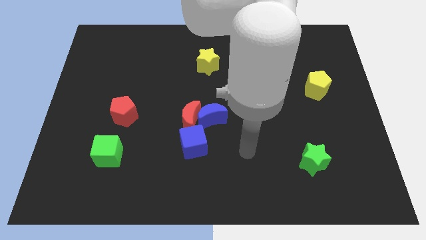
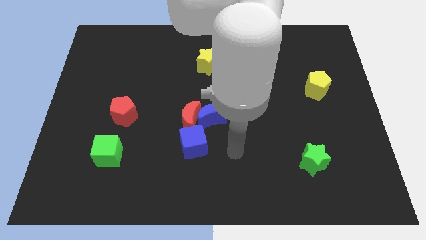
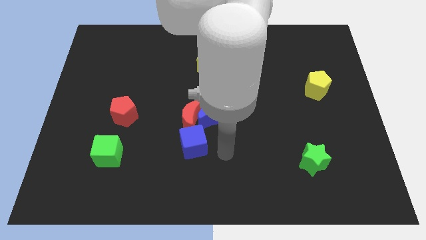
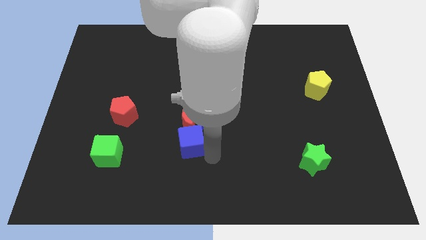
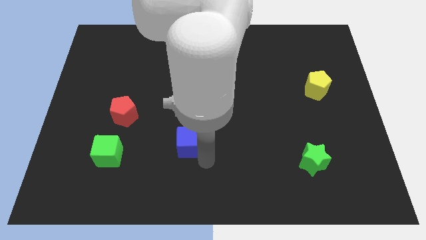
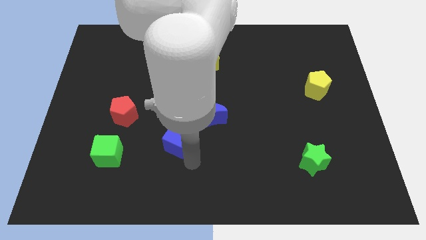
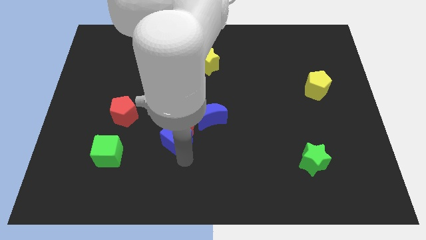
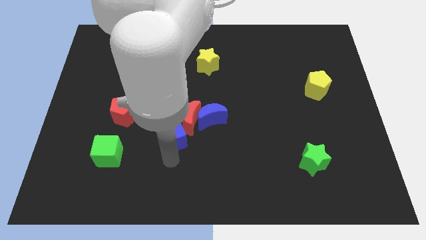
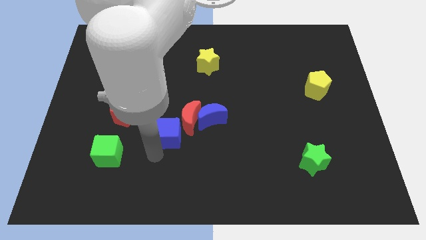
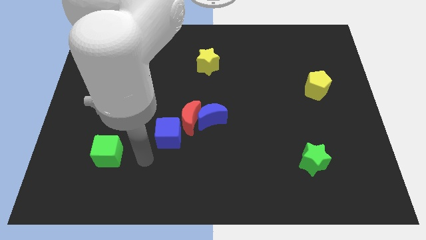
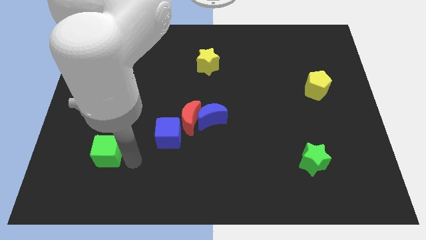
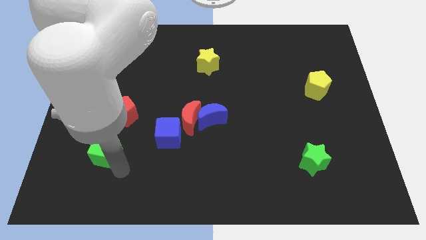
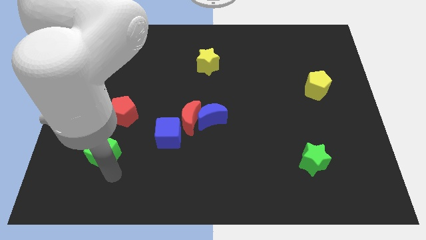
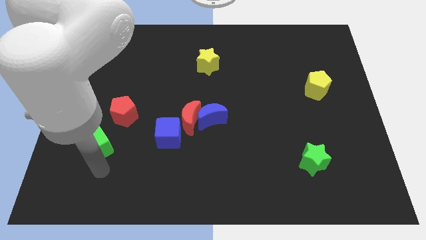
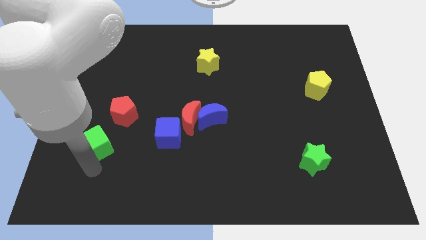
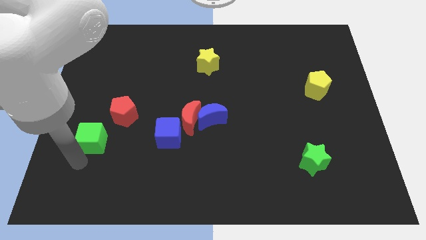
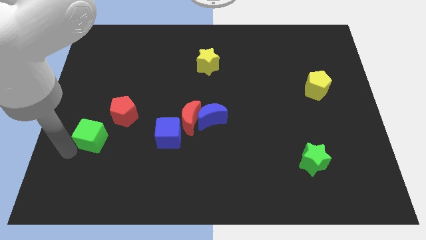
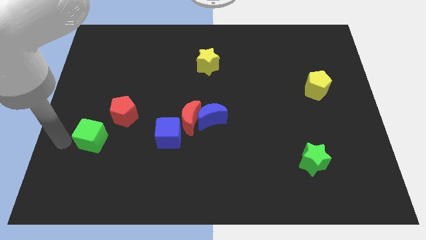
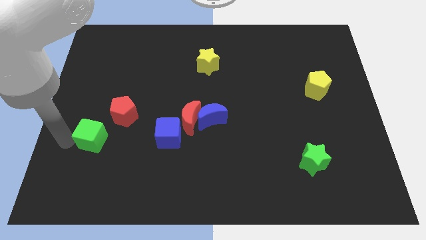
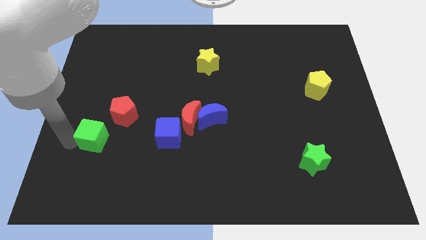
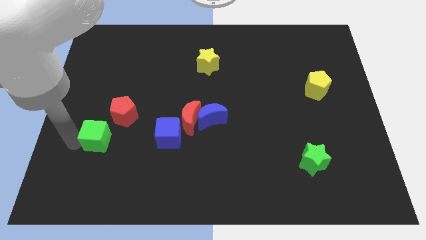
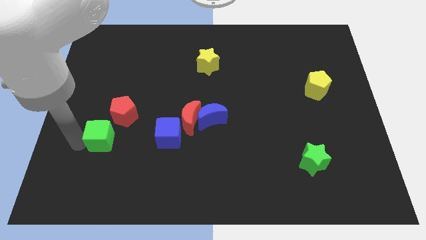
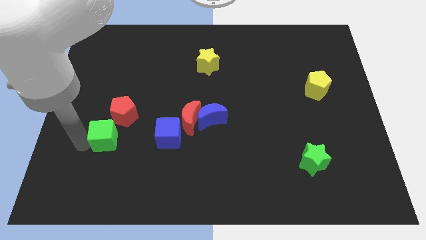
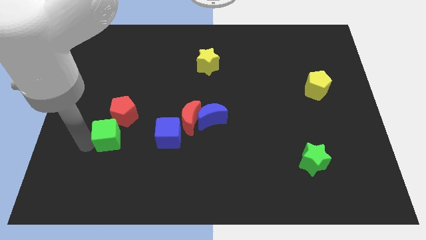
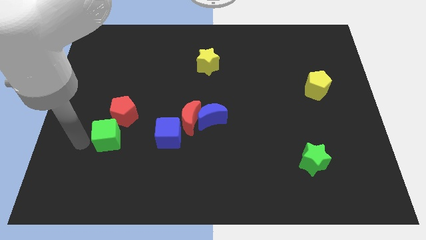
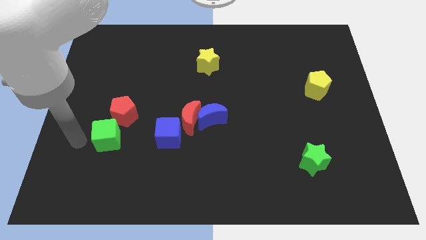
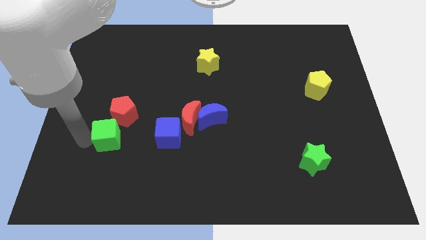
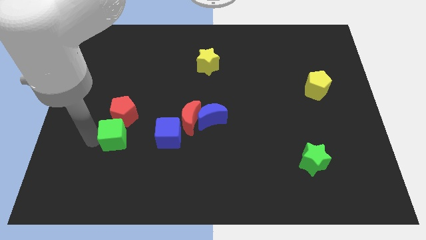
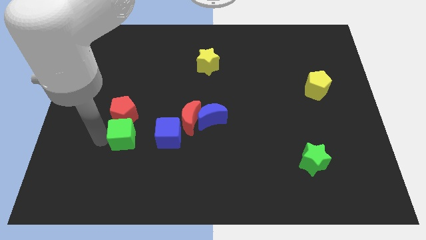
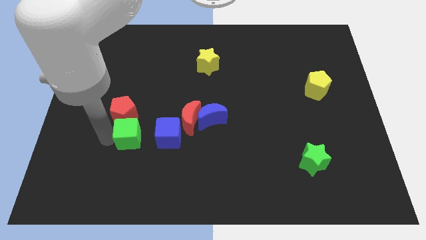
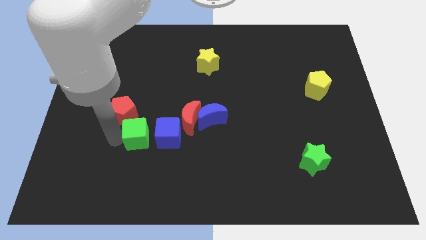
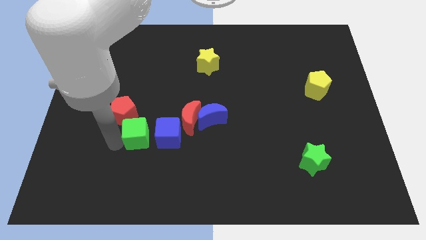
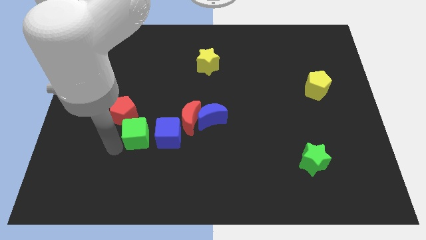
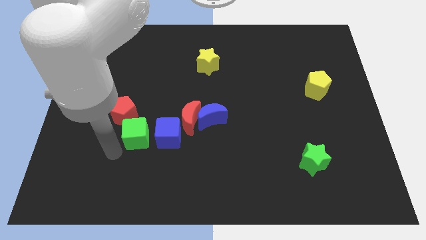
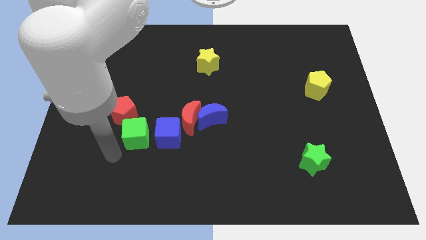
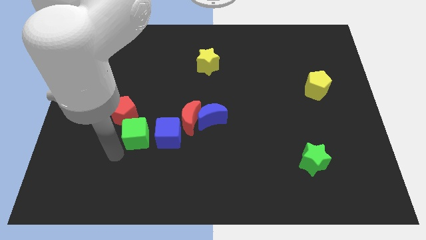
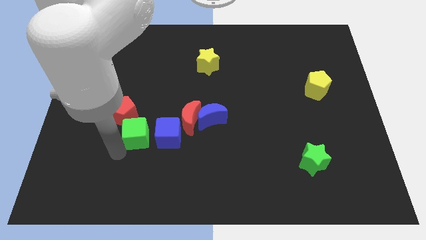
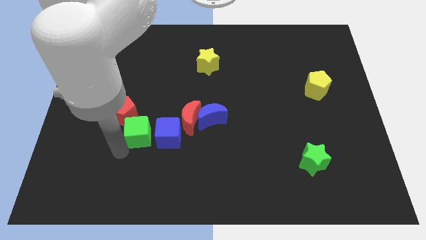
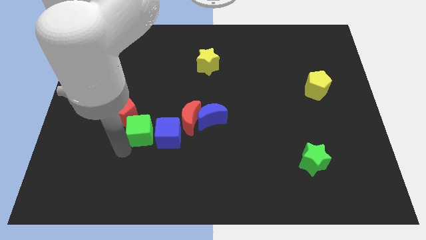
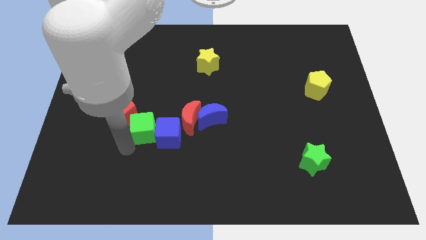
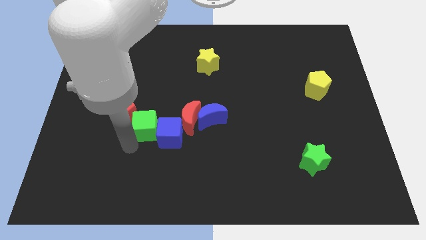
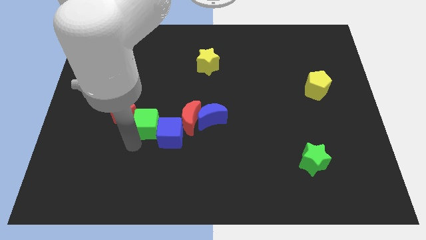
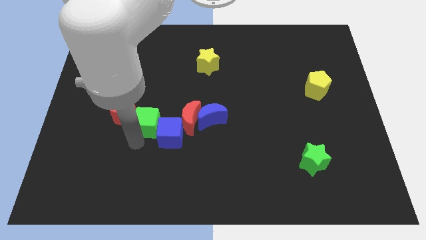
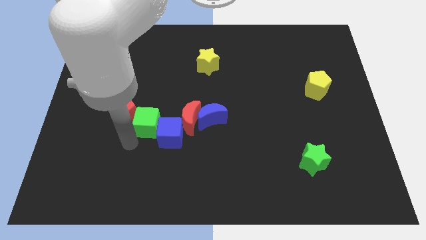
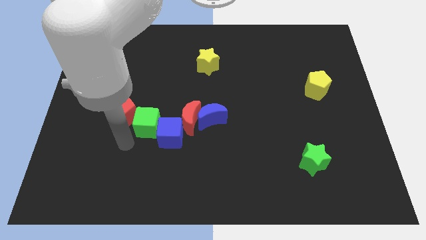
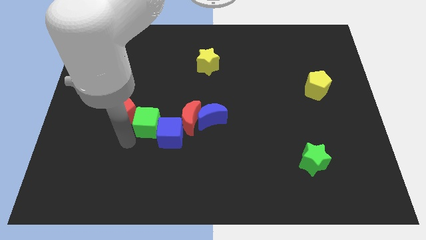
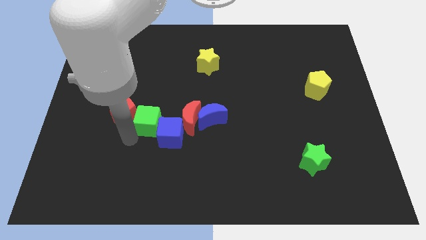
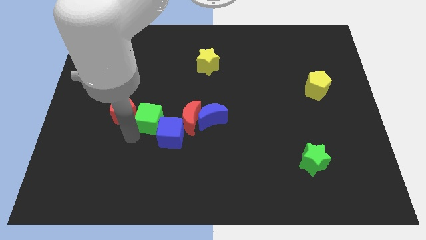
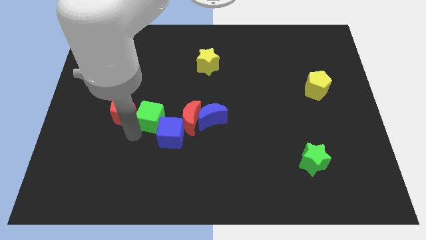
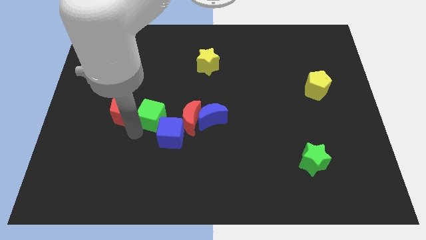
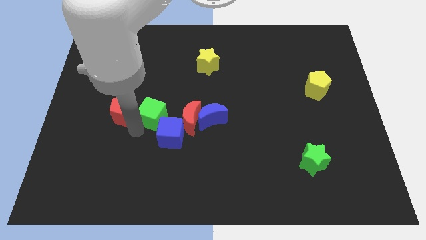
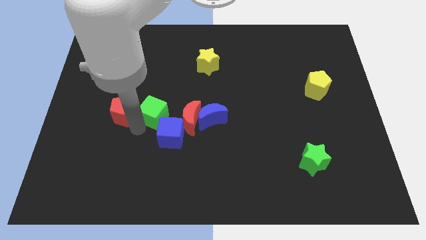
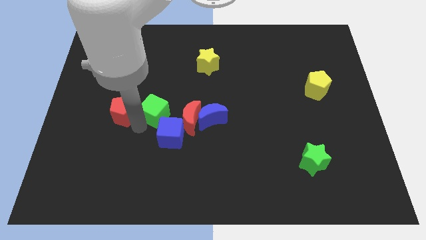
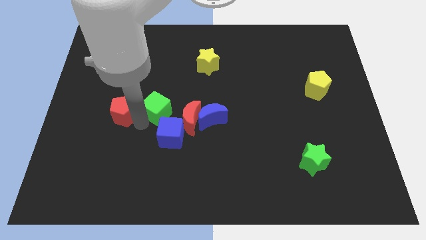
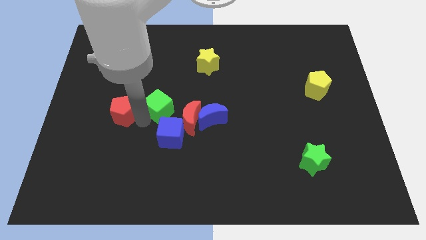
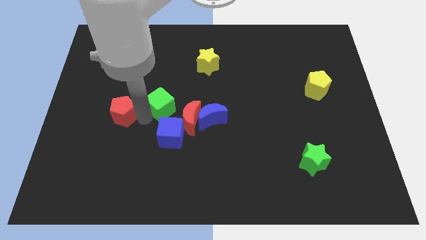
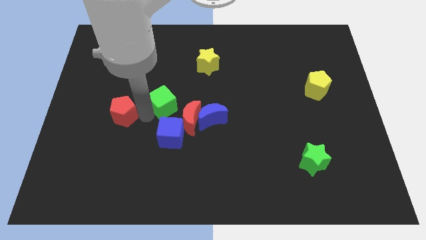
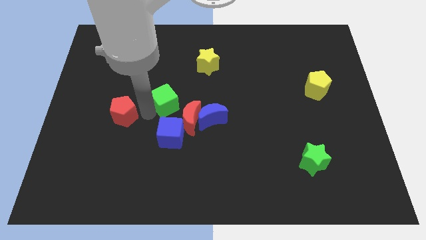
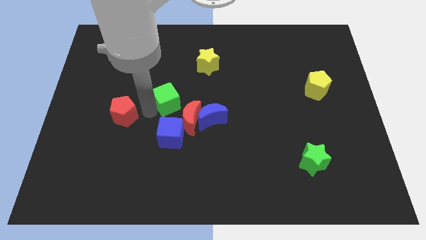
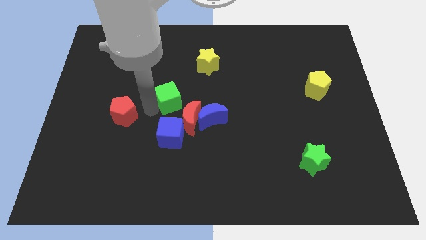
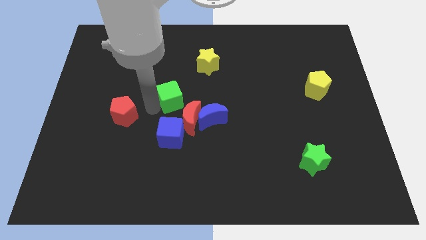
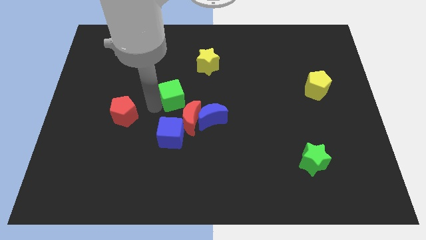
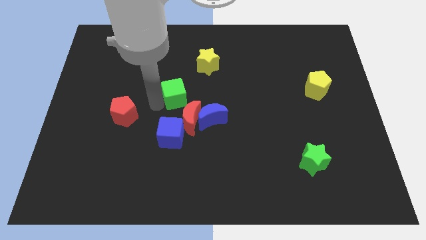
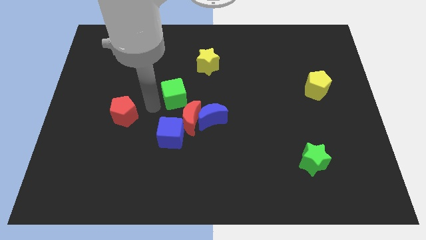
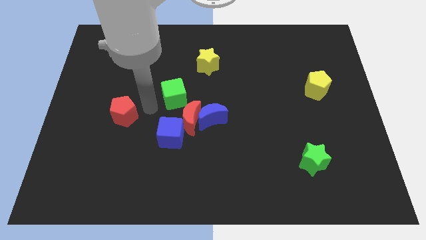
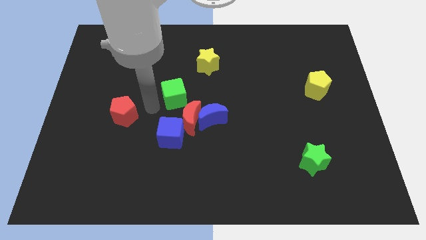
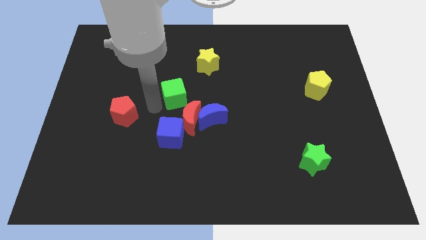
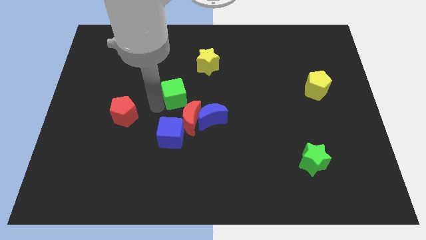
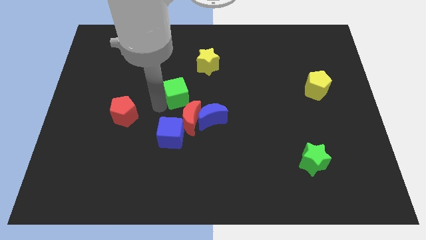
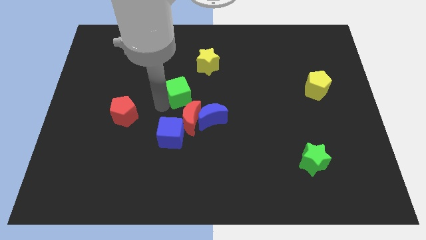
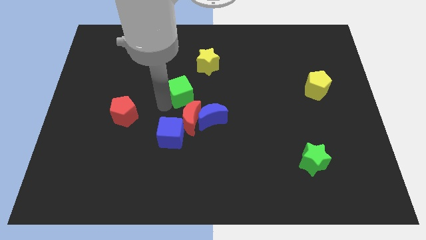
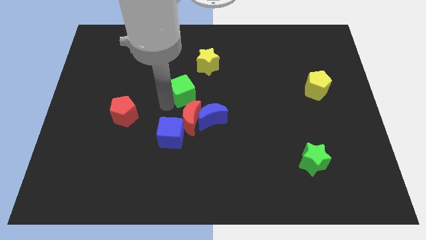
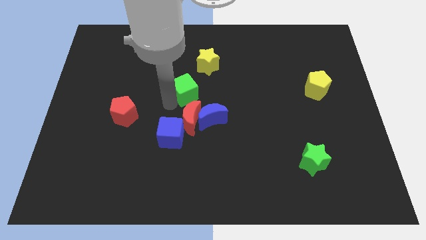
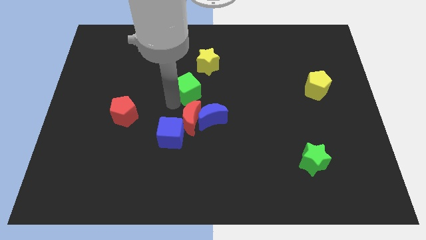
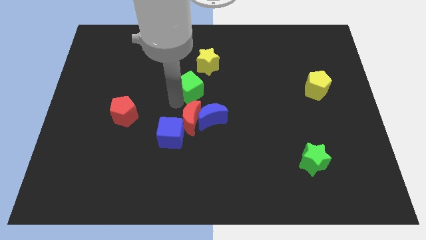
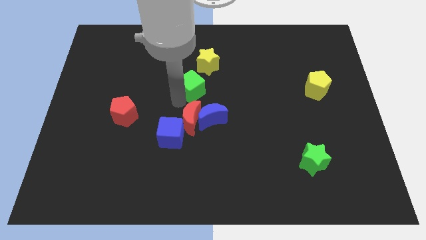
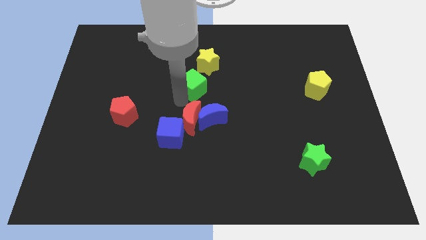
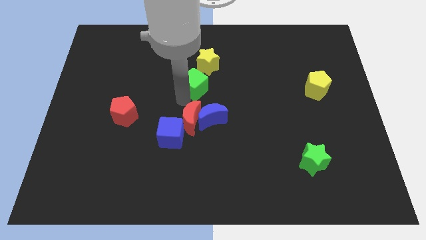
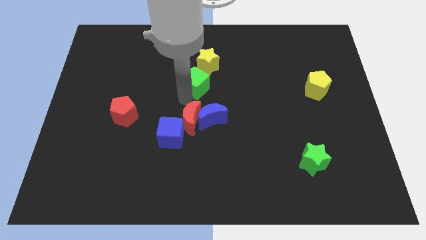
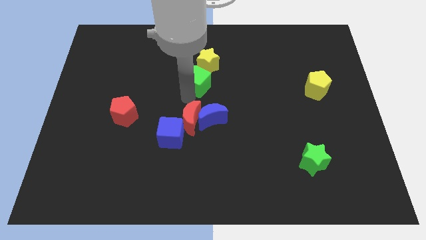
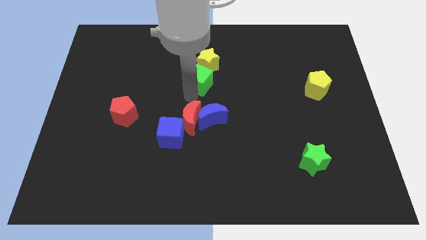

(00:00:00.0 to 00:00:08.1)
move the green cube towards the yellow star
